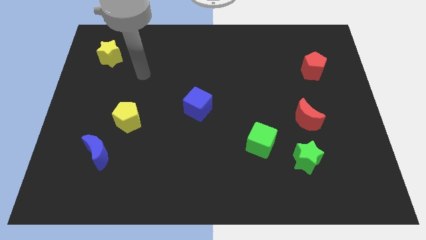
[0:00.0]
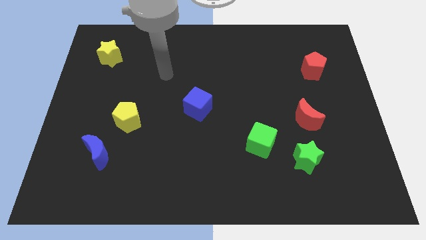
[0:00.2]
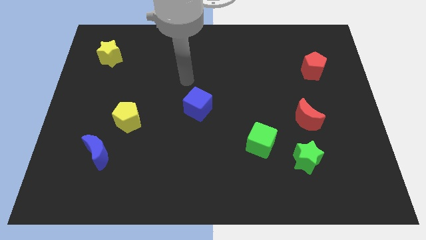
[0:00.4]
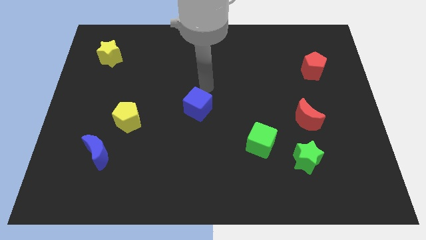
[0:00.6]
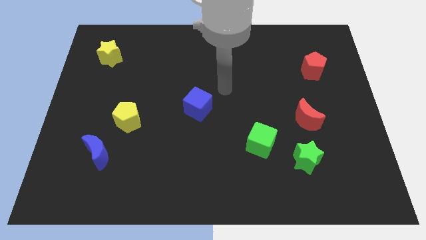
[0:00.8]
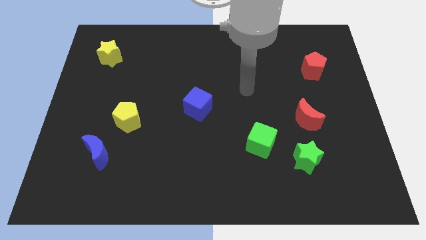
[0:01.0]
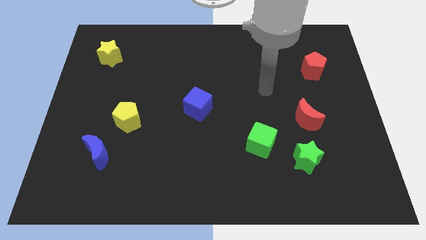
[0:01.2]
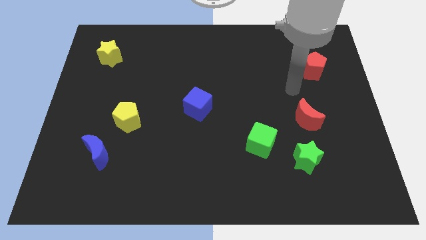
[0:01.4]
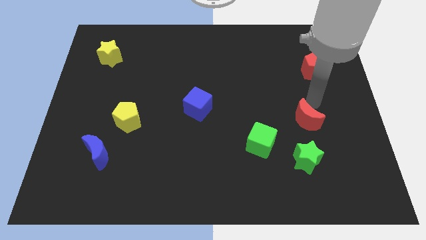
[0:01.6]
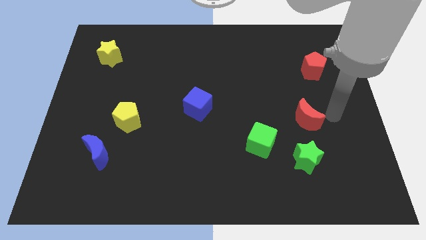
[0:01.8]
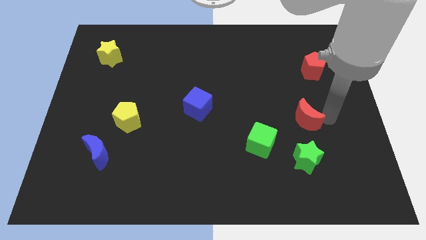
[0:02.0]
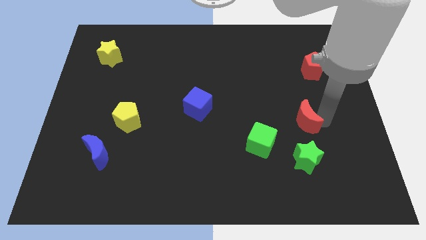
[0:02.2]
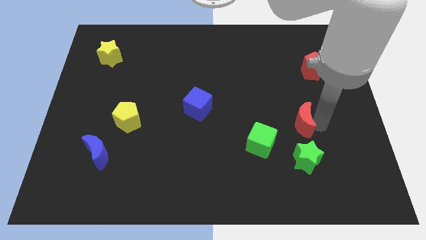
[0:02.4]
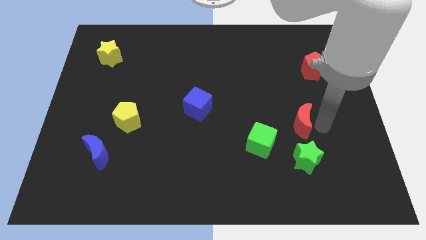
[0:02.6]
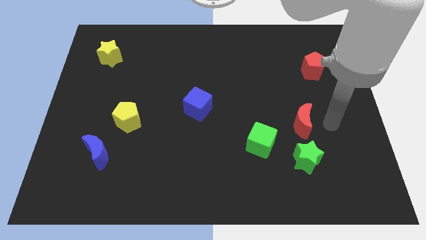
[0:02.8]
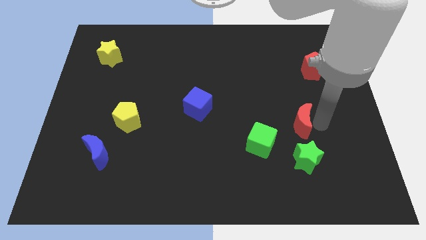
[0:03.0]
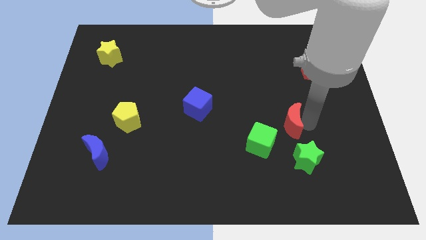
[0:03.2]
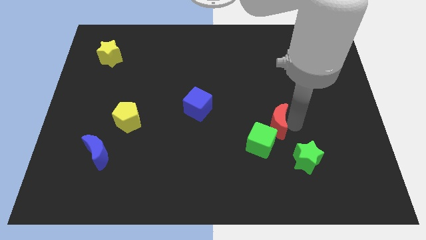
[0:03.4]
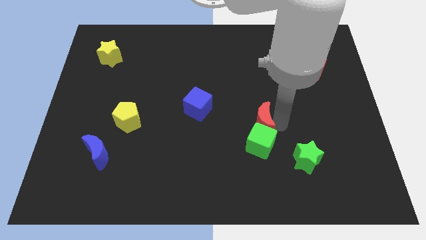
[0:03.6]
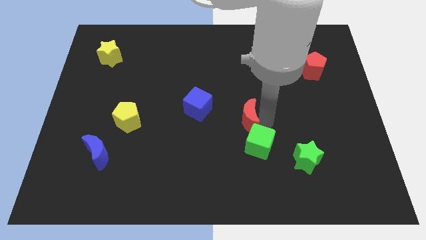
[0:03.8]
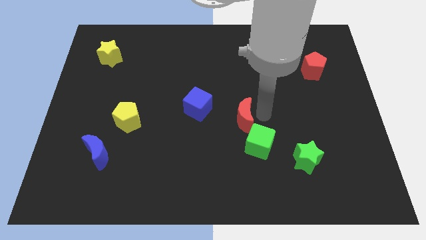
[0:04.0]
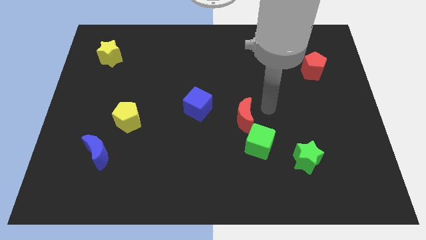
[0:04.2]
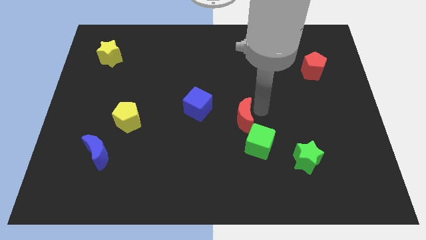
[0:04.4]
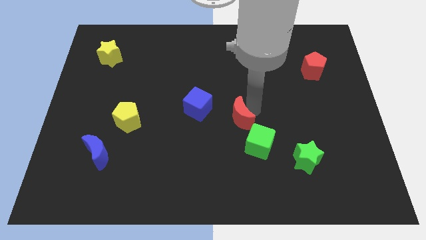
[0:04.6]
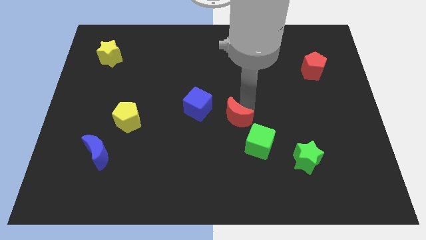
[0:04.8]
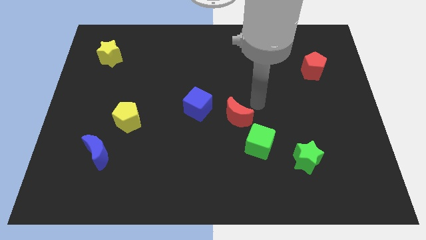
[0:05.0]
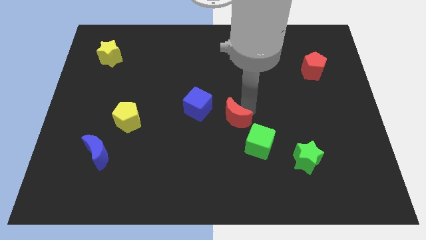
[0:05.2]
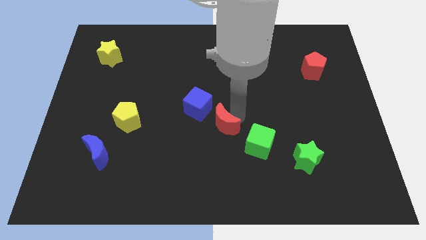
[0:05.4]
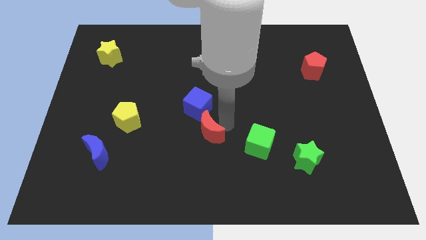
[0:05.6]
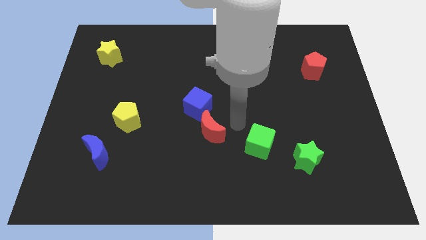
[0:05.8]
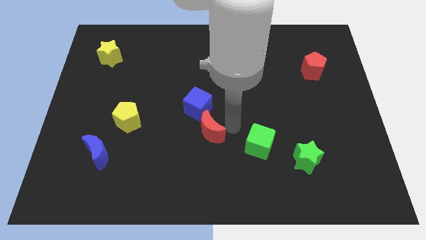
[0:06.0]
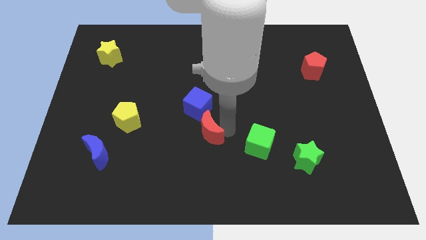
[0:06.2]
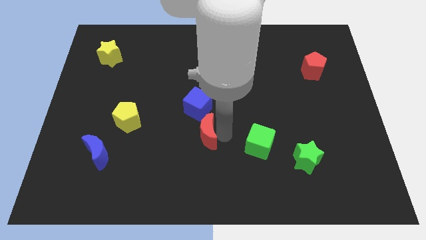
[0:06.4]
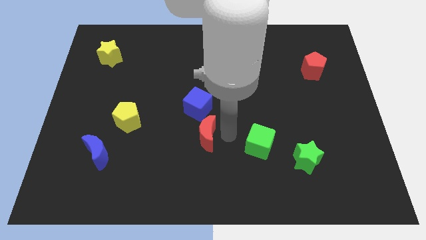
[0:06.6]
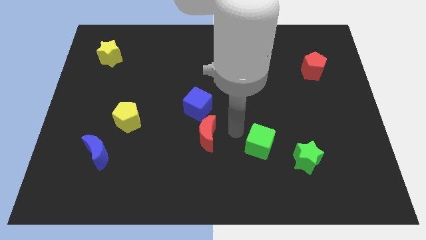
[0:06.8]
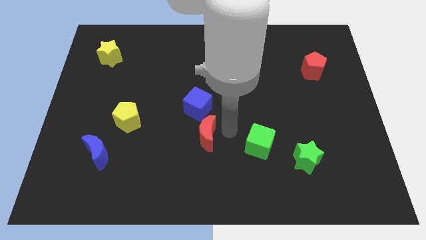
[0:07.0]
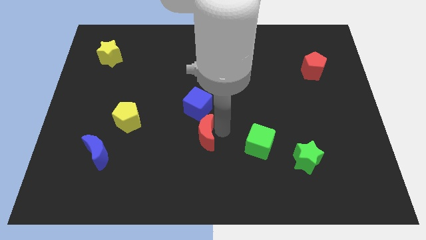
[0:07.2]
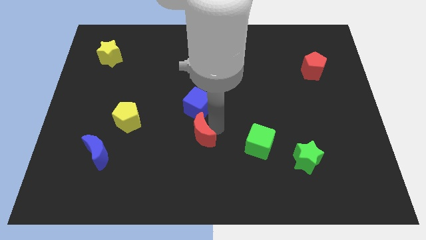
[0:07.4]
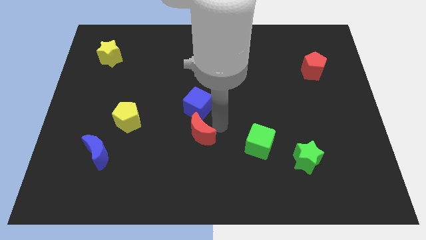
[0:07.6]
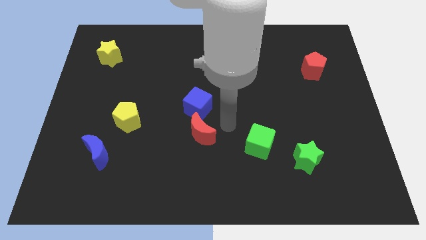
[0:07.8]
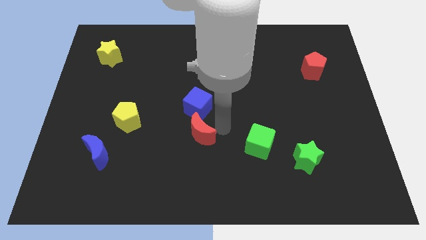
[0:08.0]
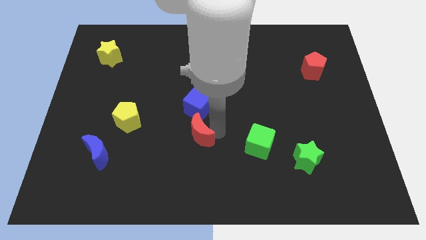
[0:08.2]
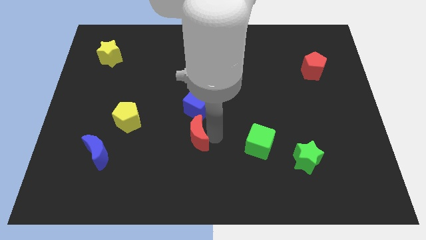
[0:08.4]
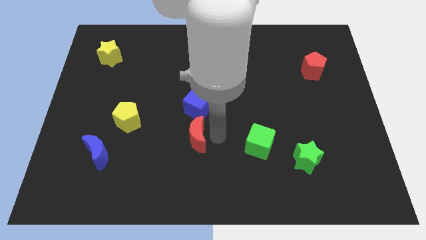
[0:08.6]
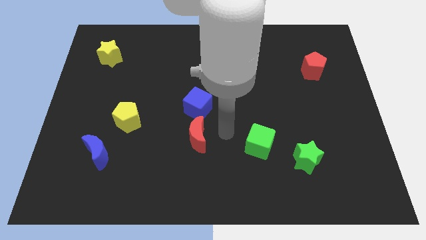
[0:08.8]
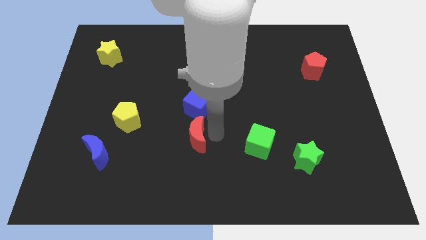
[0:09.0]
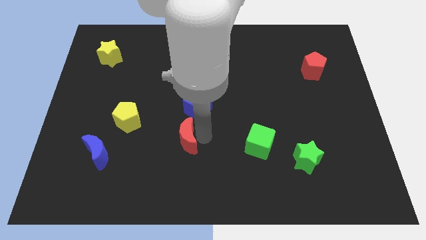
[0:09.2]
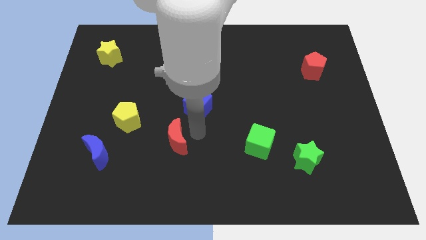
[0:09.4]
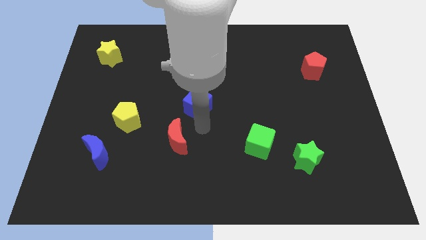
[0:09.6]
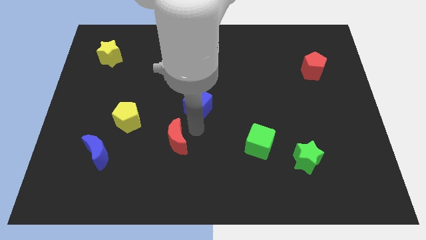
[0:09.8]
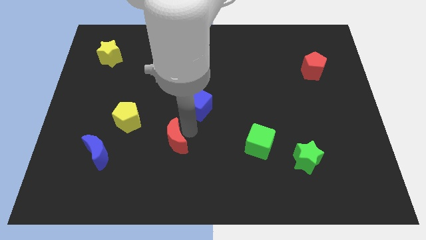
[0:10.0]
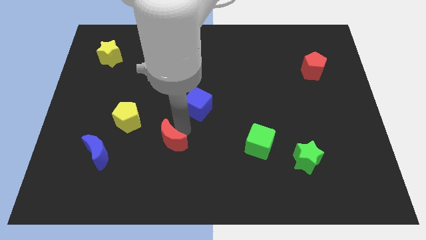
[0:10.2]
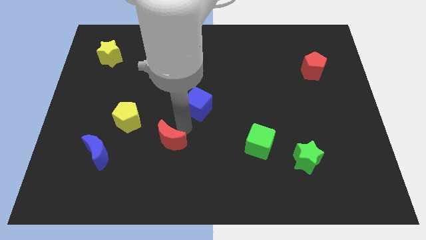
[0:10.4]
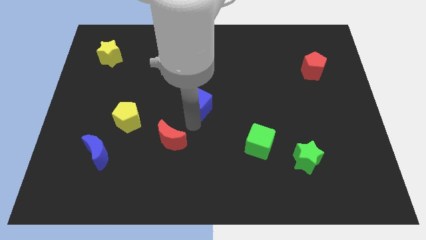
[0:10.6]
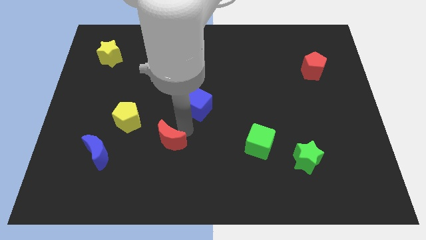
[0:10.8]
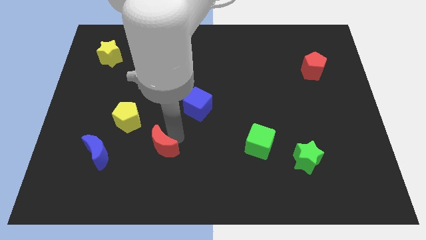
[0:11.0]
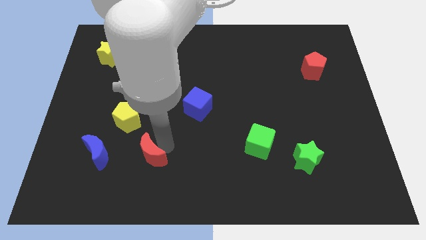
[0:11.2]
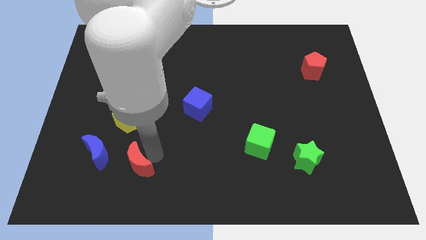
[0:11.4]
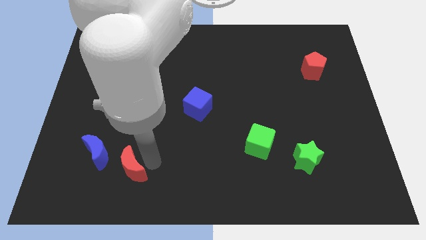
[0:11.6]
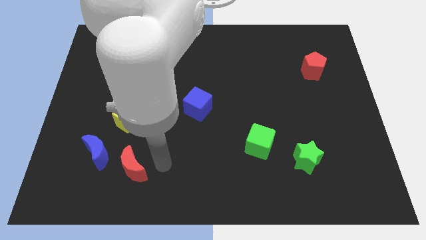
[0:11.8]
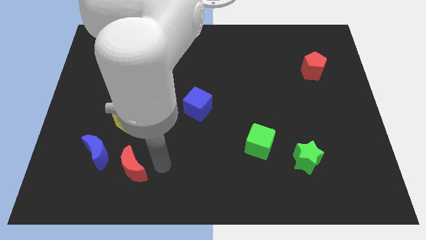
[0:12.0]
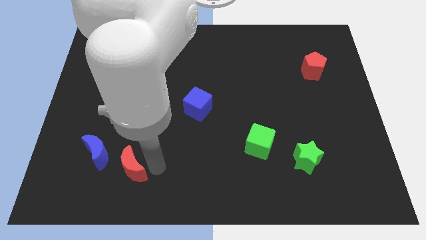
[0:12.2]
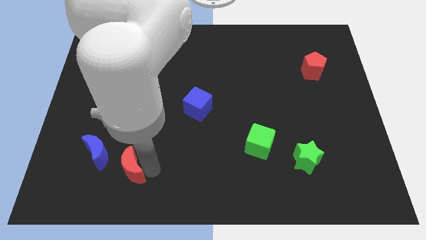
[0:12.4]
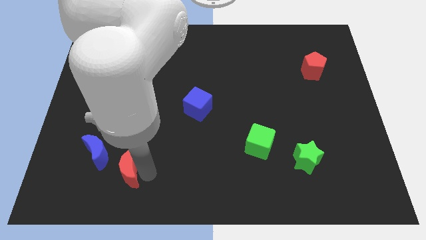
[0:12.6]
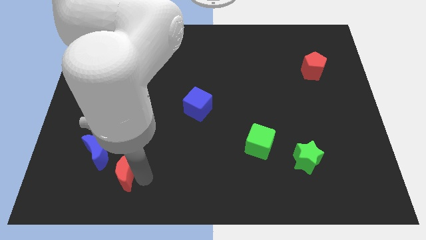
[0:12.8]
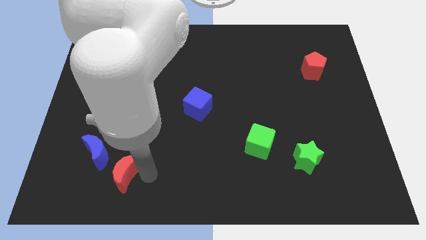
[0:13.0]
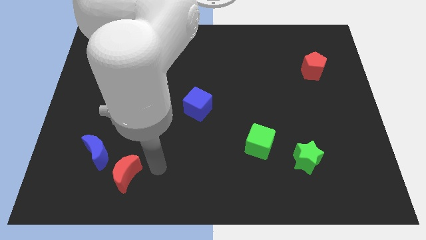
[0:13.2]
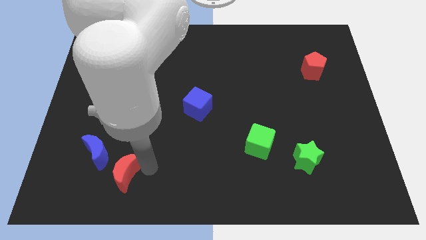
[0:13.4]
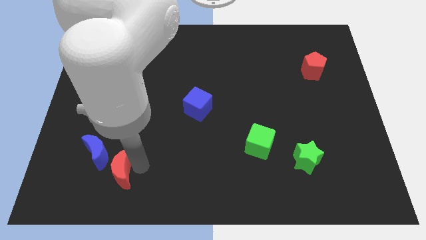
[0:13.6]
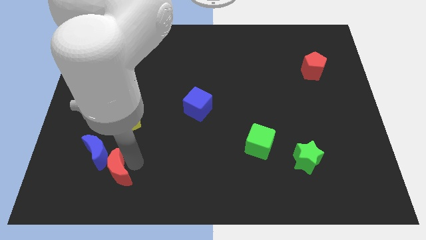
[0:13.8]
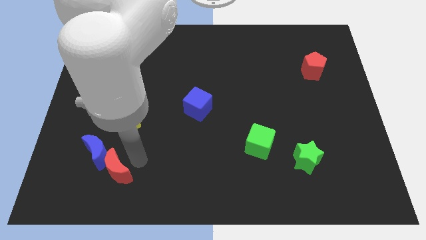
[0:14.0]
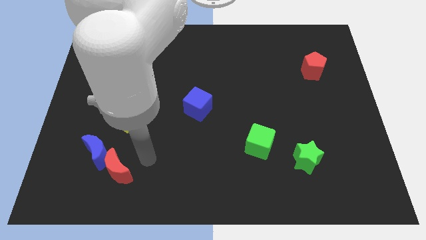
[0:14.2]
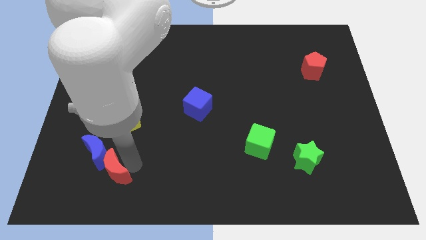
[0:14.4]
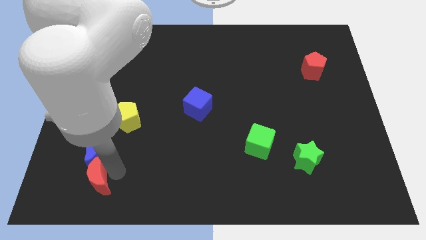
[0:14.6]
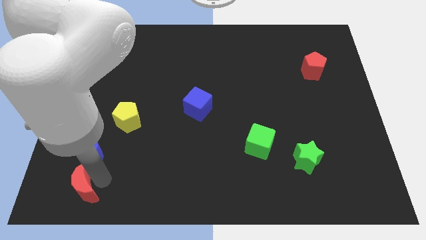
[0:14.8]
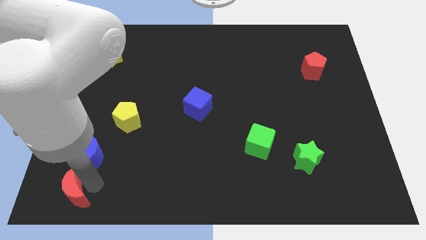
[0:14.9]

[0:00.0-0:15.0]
put the red moon to the bottom left
